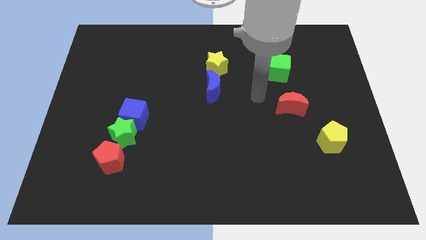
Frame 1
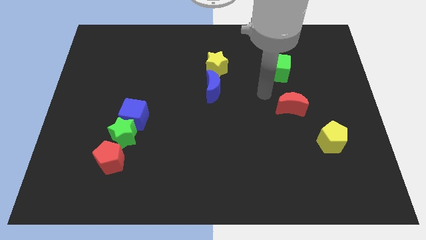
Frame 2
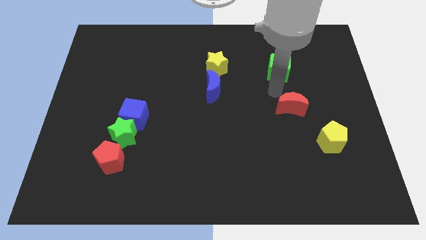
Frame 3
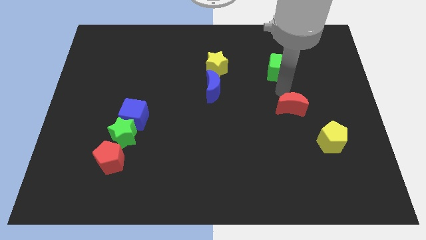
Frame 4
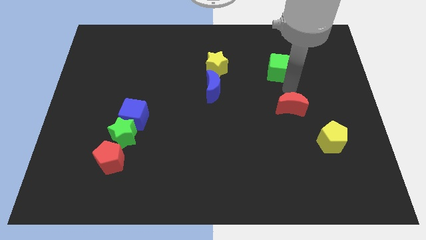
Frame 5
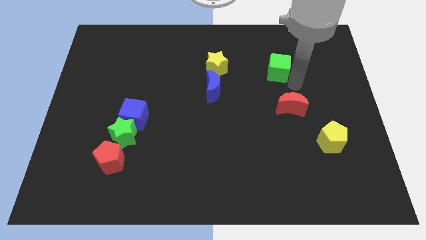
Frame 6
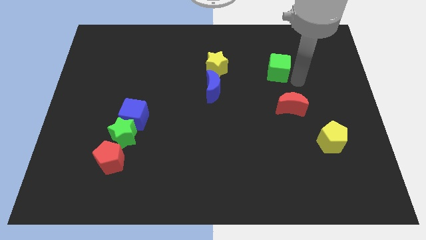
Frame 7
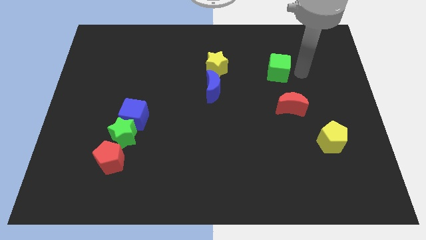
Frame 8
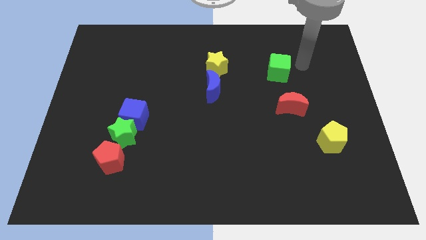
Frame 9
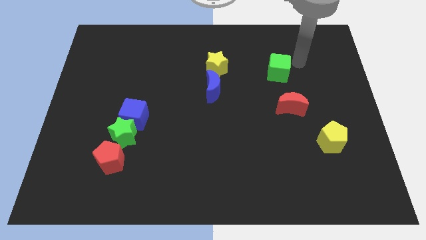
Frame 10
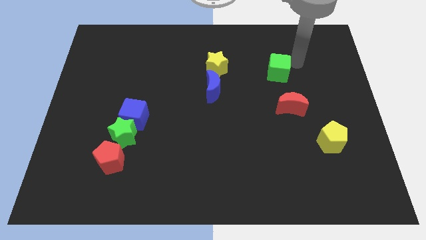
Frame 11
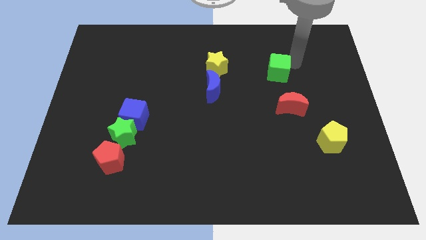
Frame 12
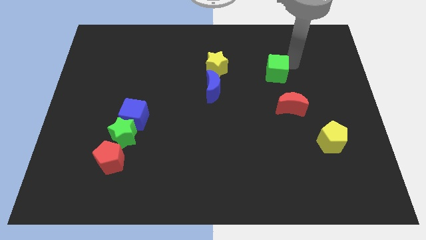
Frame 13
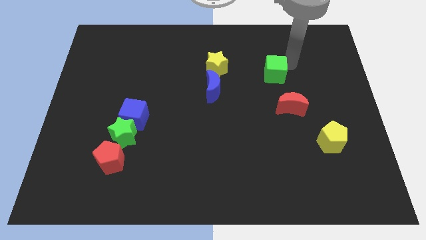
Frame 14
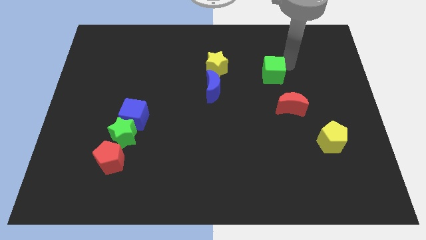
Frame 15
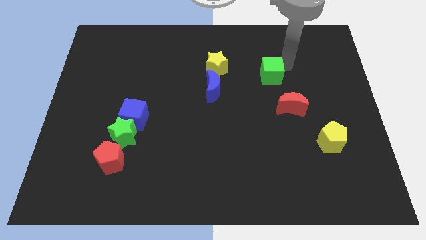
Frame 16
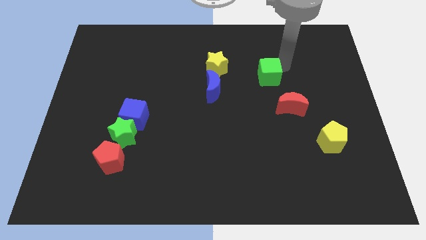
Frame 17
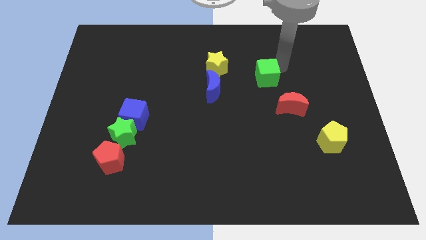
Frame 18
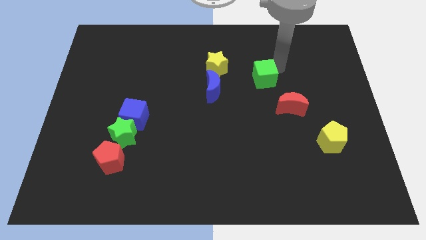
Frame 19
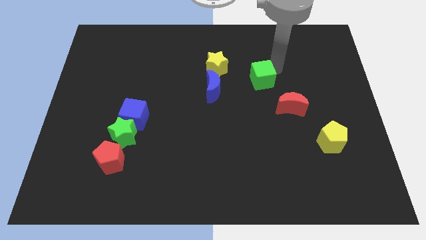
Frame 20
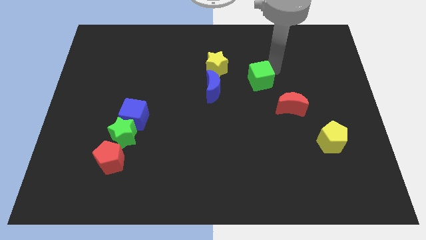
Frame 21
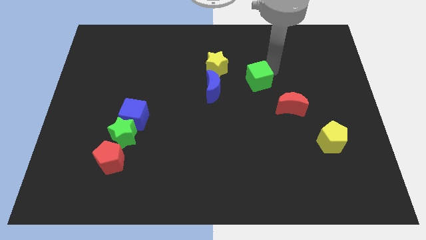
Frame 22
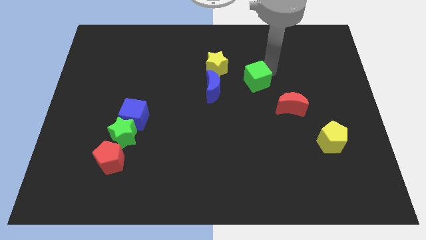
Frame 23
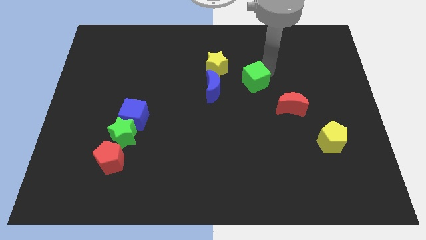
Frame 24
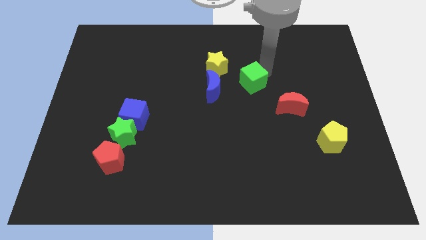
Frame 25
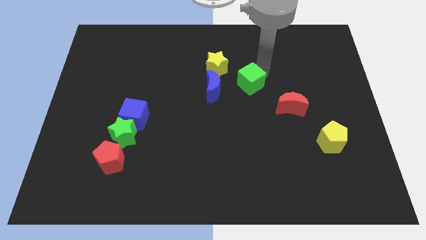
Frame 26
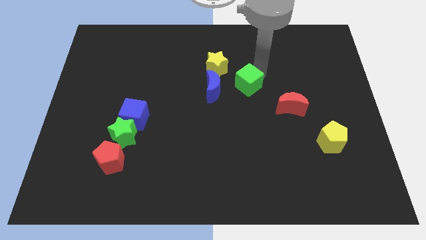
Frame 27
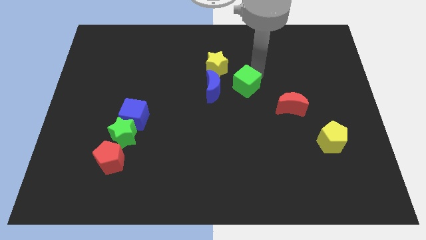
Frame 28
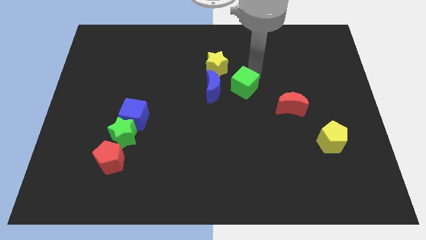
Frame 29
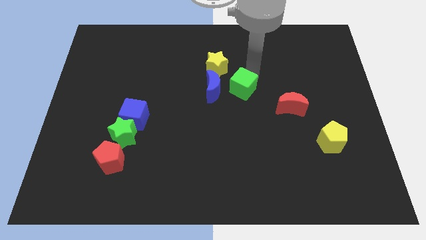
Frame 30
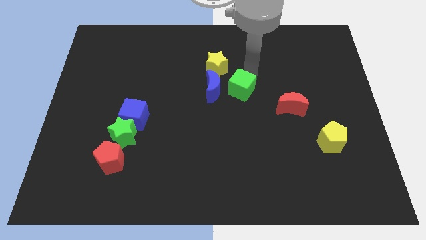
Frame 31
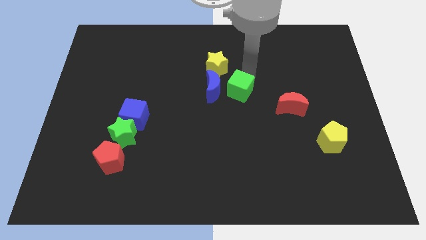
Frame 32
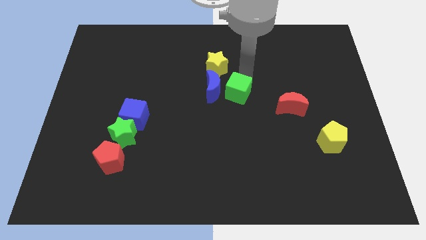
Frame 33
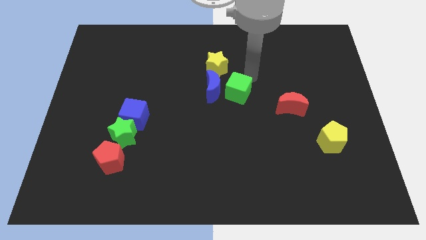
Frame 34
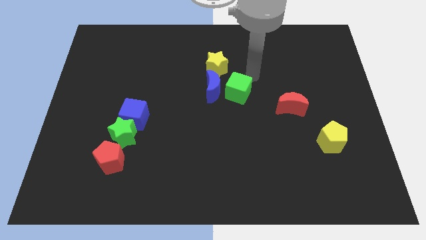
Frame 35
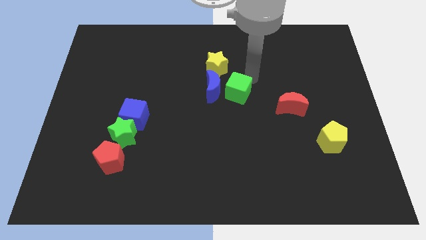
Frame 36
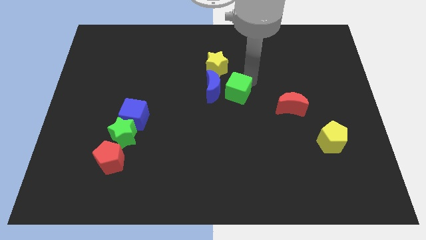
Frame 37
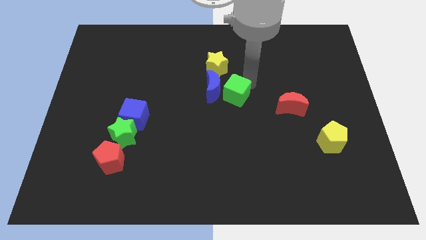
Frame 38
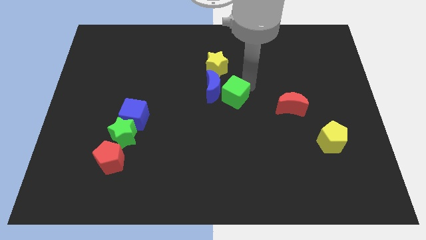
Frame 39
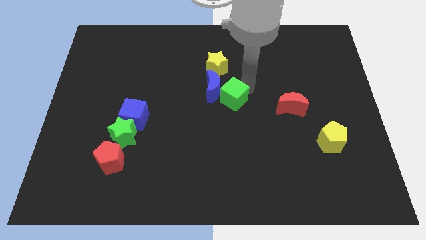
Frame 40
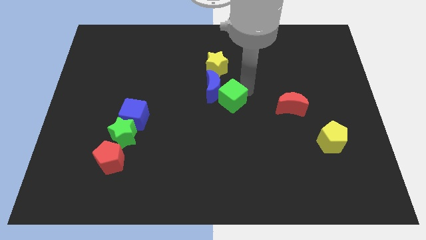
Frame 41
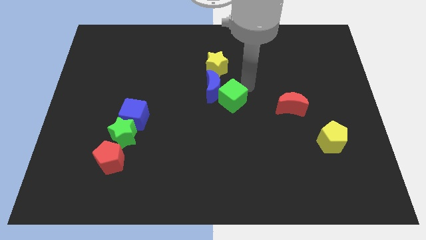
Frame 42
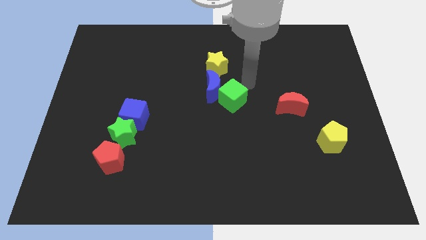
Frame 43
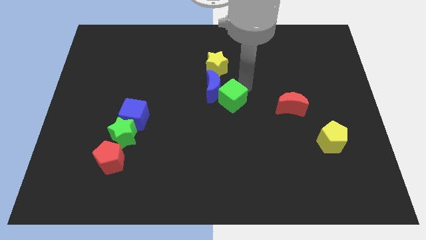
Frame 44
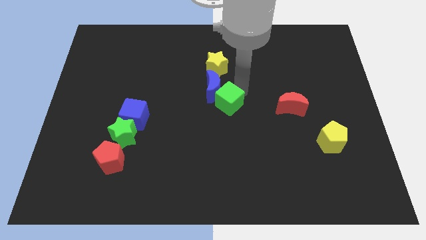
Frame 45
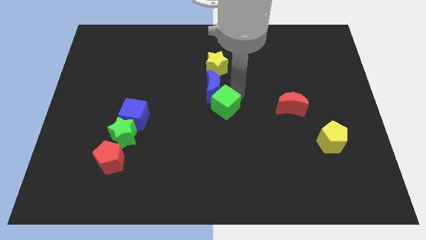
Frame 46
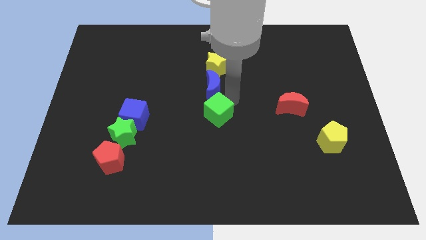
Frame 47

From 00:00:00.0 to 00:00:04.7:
push the green cube downwards and then left

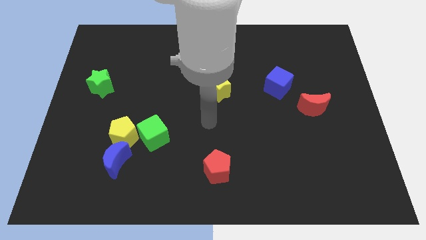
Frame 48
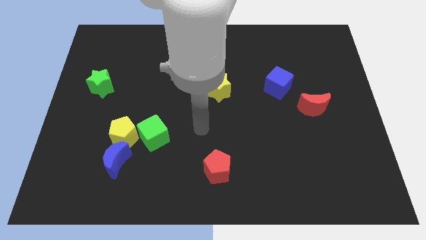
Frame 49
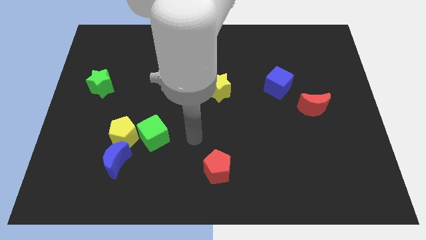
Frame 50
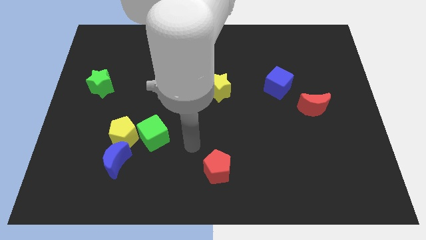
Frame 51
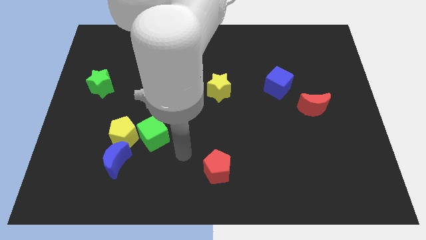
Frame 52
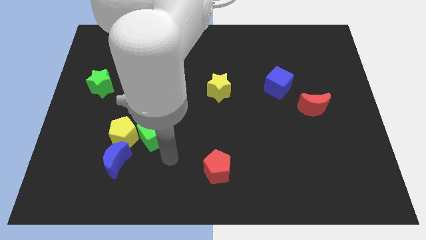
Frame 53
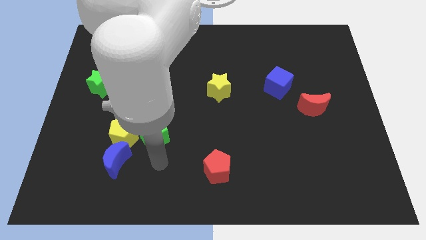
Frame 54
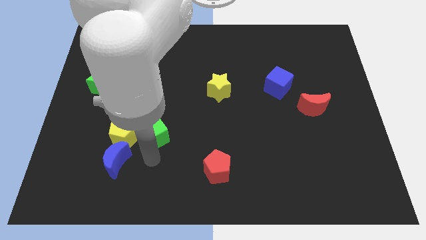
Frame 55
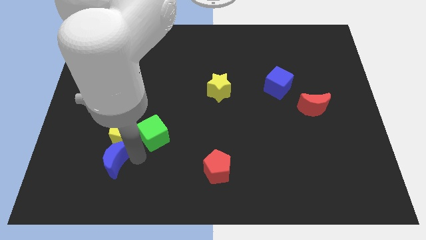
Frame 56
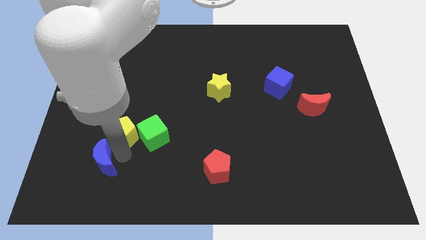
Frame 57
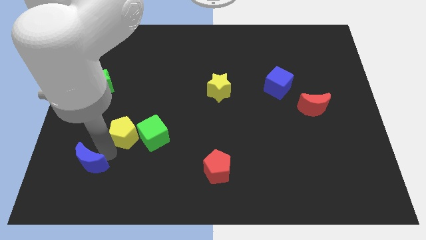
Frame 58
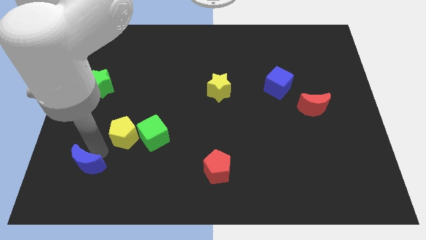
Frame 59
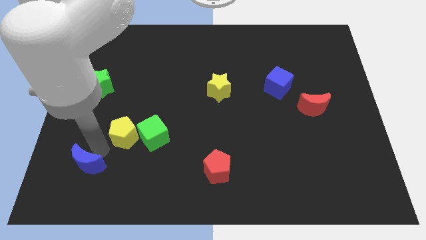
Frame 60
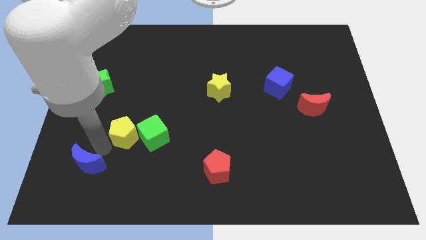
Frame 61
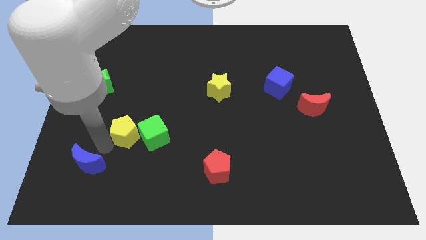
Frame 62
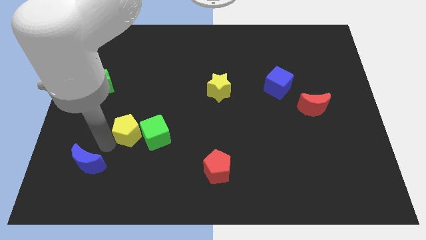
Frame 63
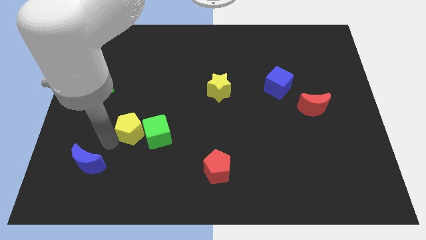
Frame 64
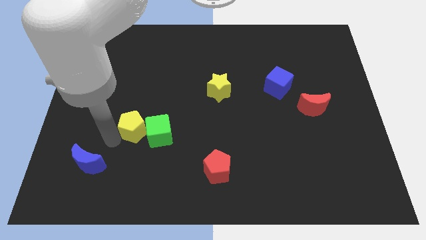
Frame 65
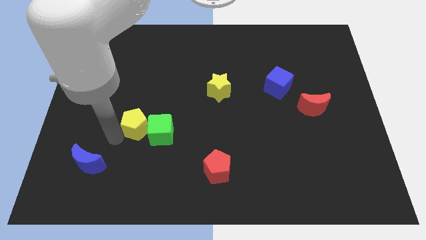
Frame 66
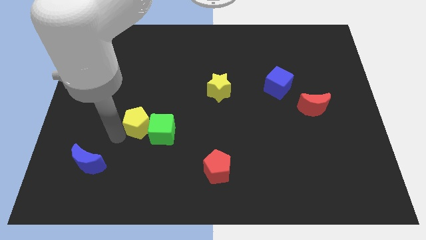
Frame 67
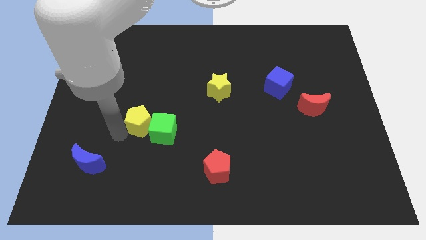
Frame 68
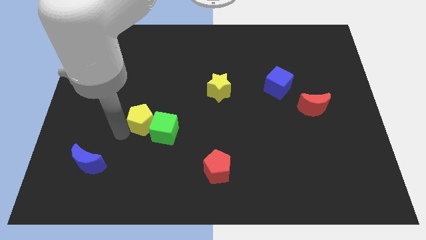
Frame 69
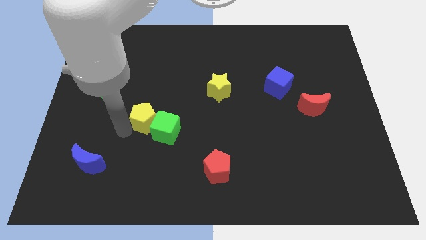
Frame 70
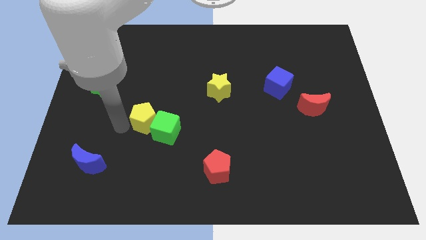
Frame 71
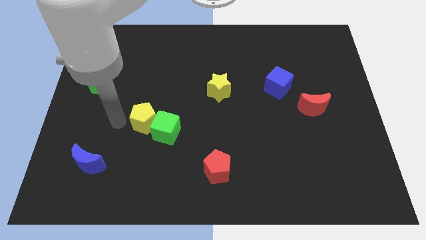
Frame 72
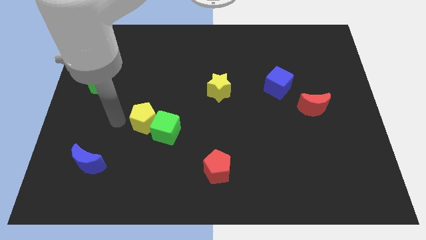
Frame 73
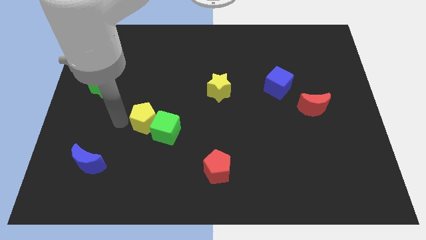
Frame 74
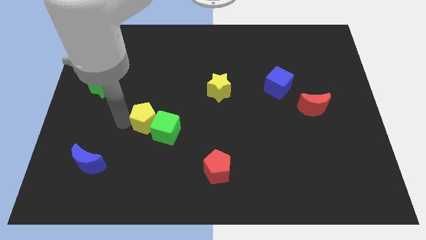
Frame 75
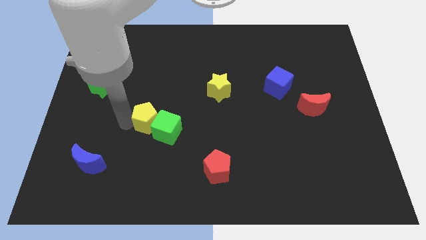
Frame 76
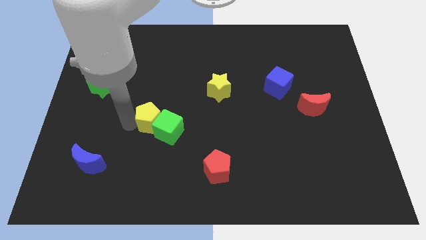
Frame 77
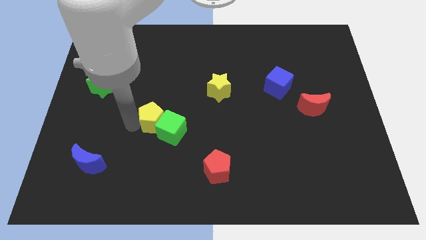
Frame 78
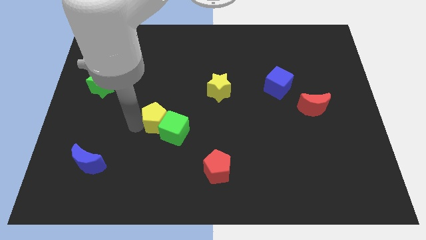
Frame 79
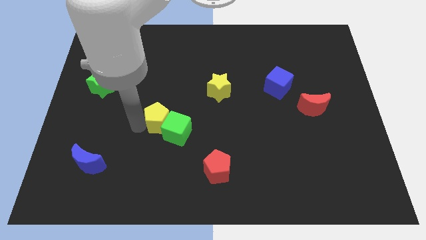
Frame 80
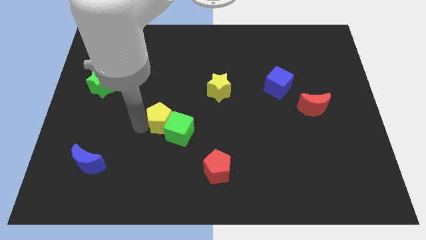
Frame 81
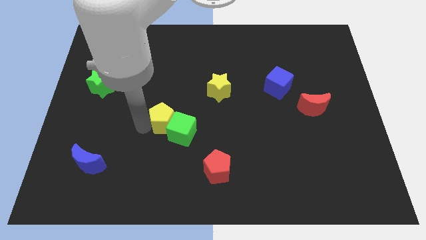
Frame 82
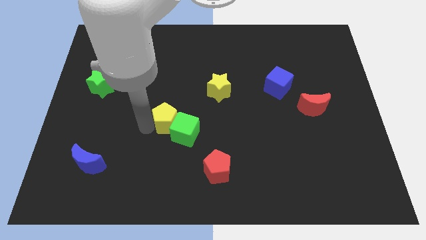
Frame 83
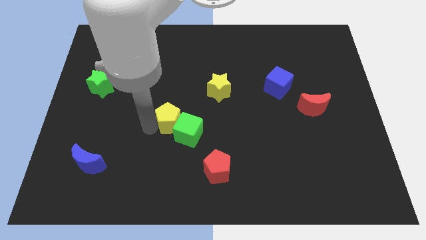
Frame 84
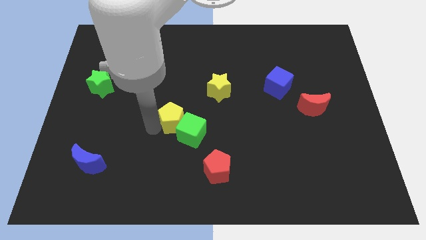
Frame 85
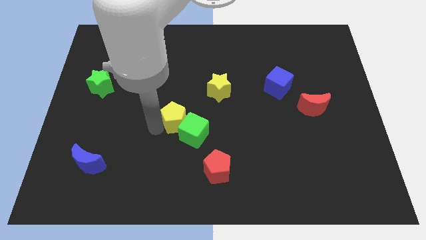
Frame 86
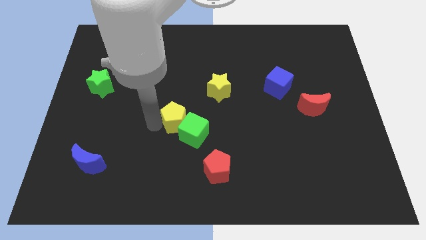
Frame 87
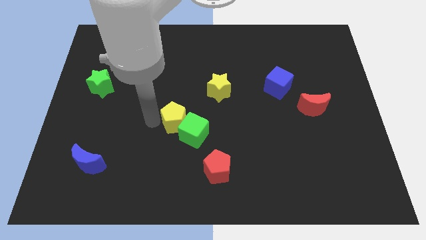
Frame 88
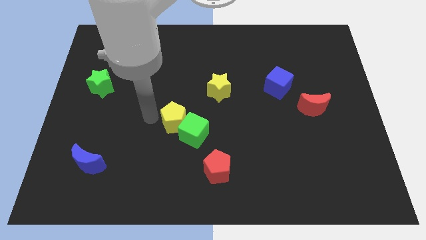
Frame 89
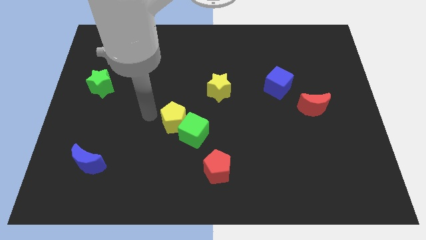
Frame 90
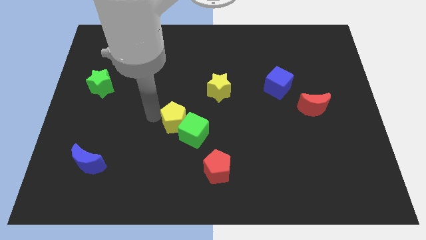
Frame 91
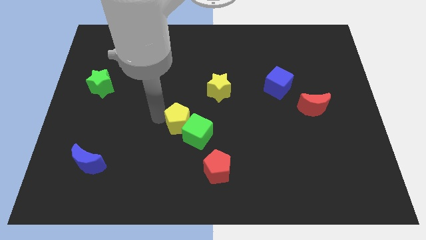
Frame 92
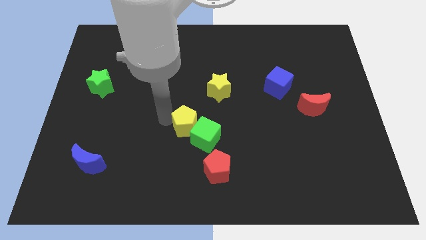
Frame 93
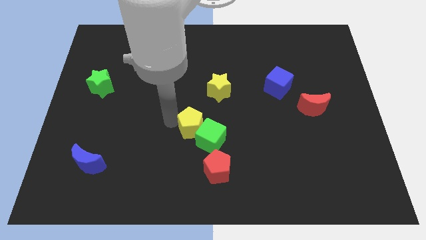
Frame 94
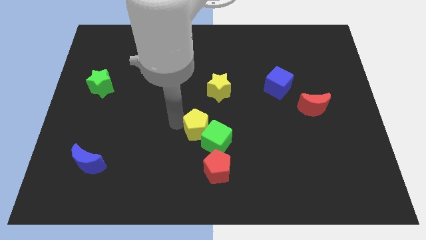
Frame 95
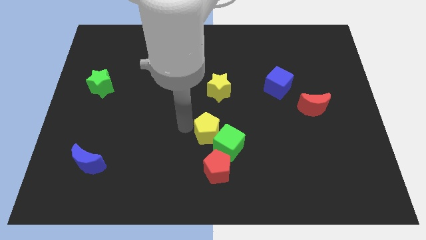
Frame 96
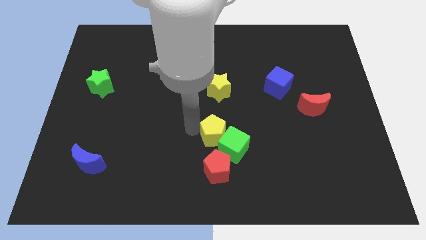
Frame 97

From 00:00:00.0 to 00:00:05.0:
move the yellow pentagon right
